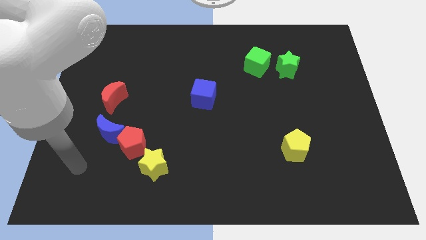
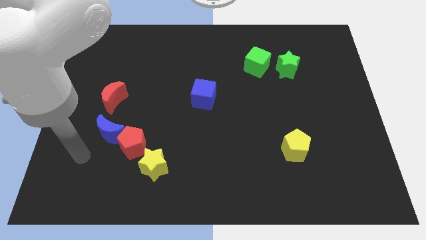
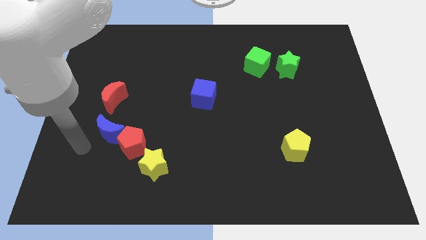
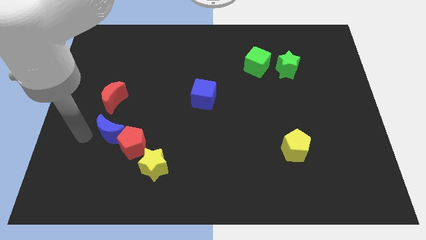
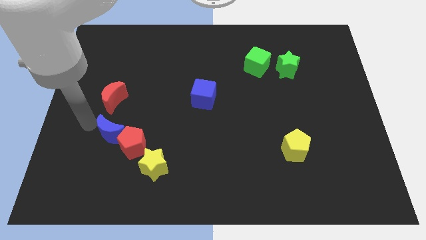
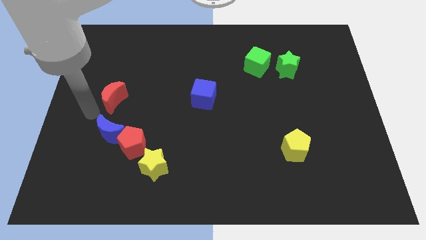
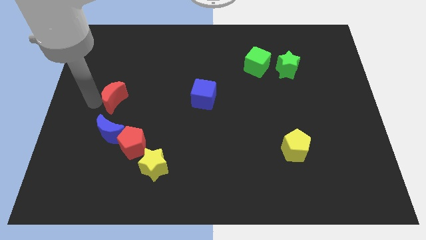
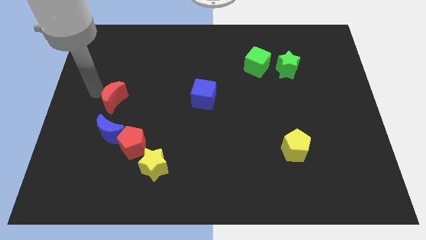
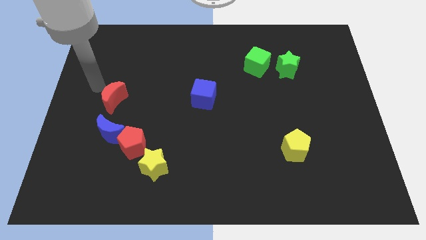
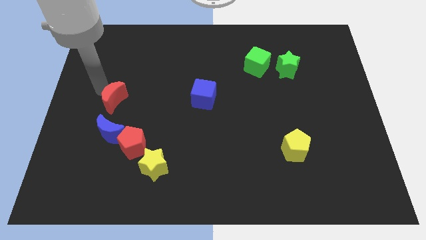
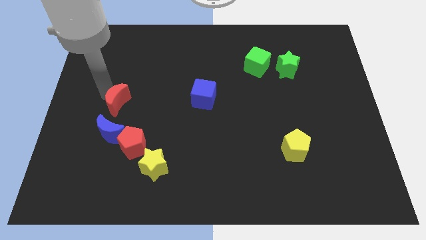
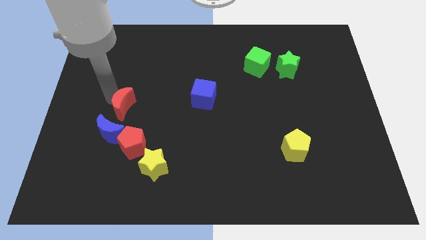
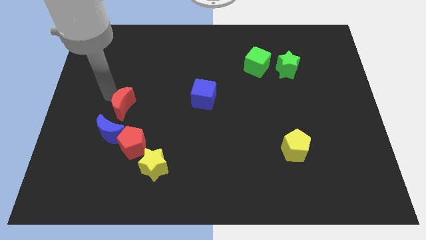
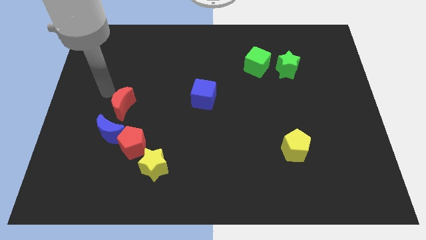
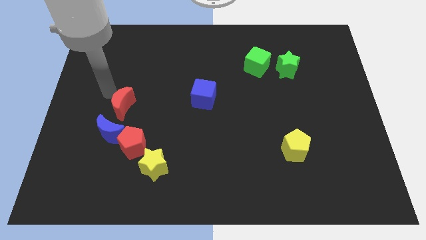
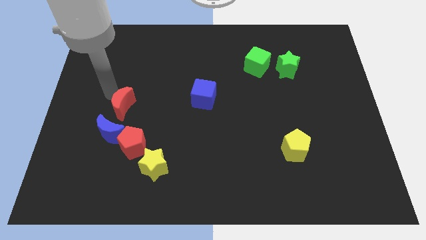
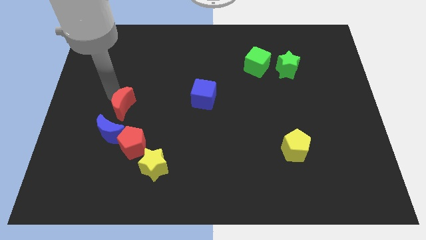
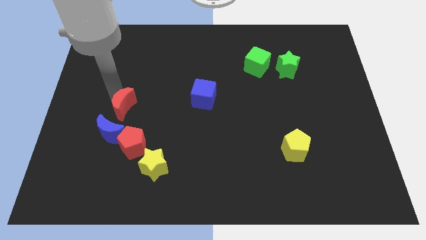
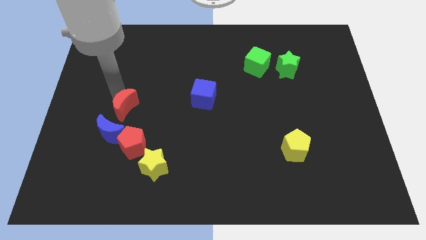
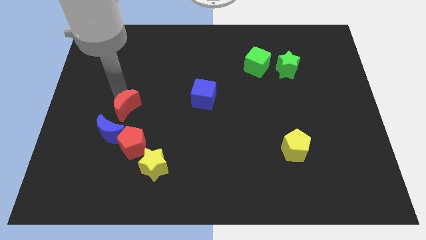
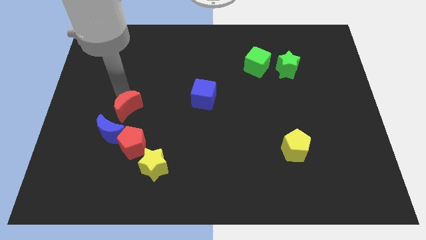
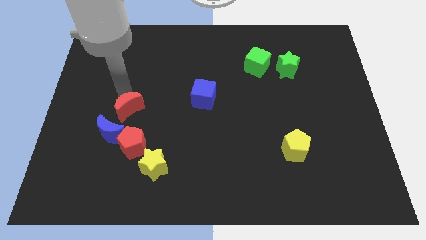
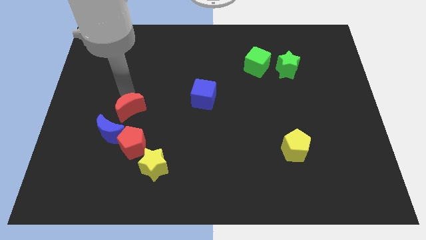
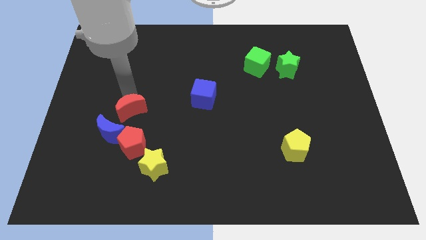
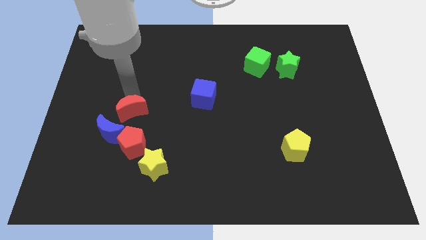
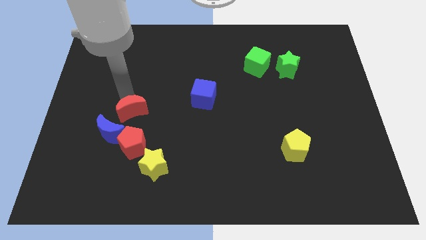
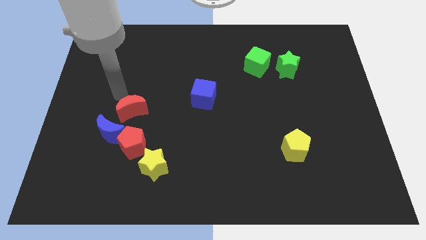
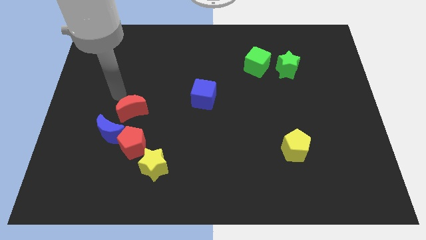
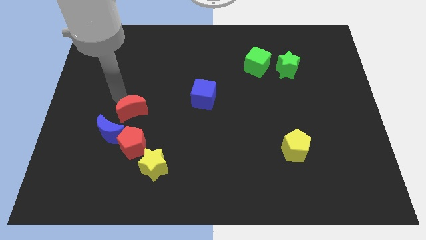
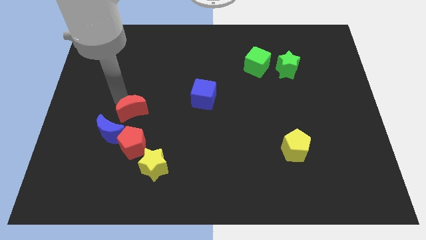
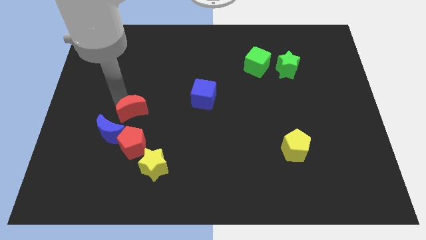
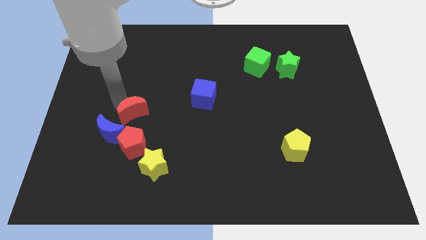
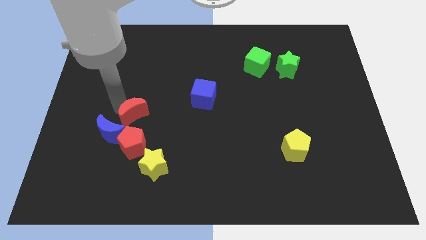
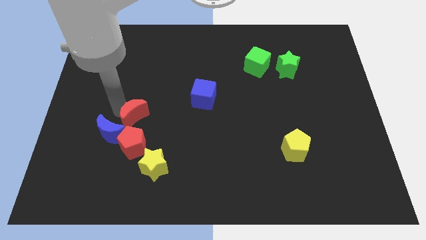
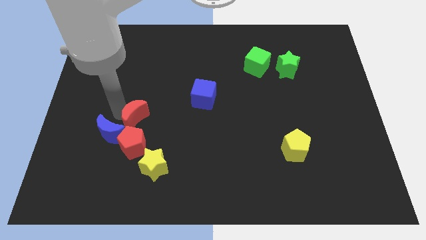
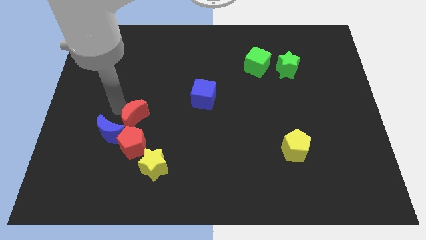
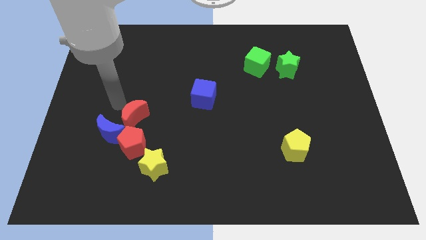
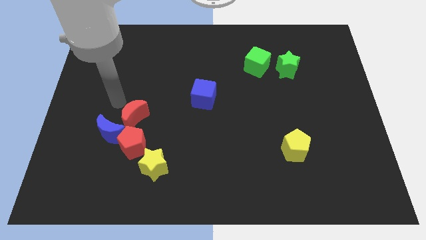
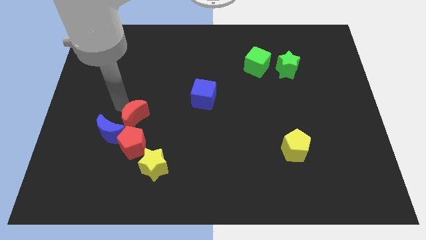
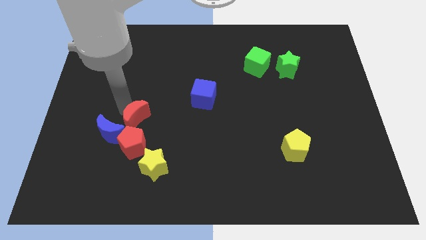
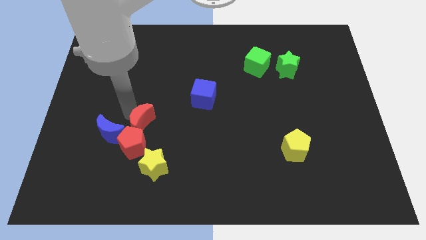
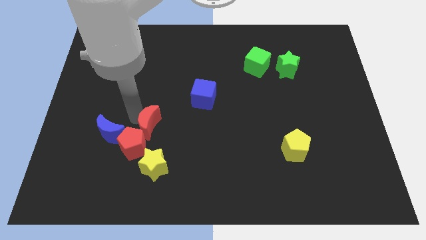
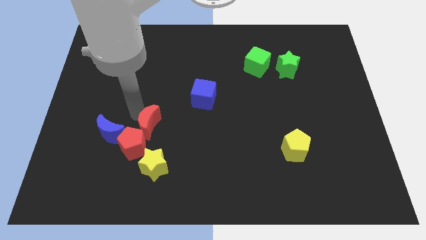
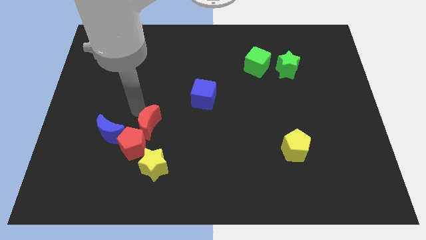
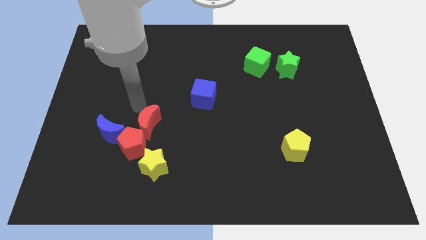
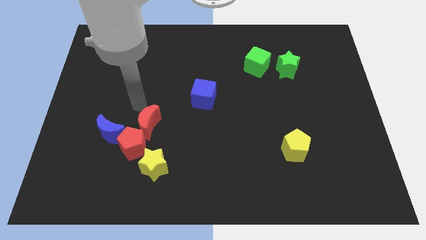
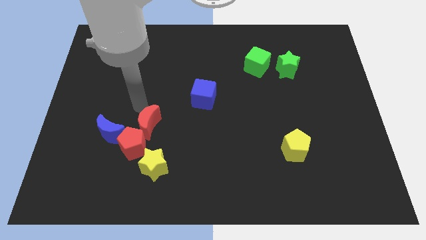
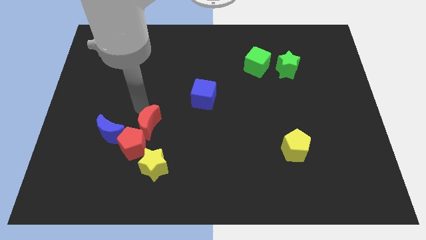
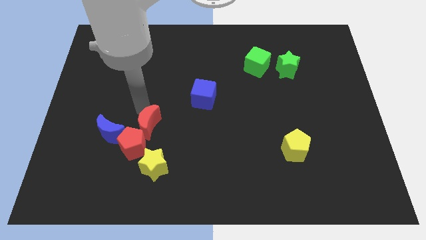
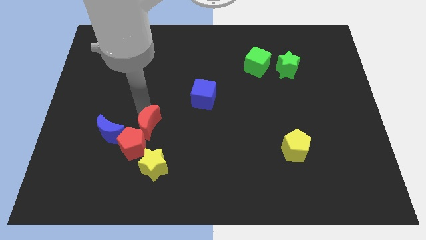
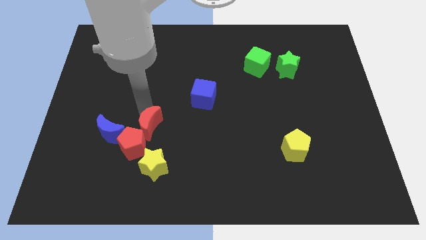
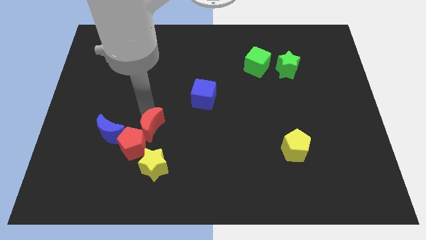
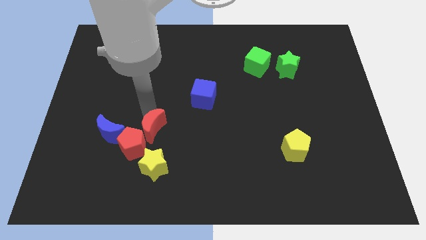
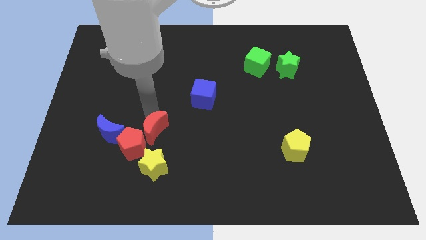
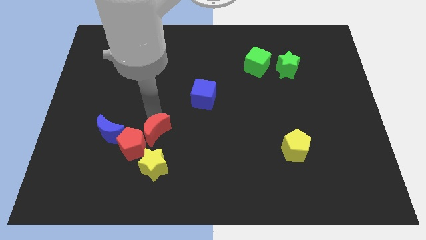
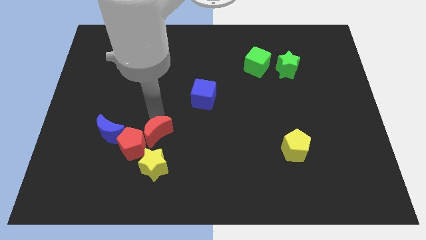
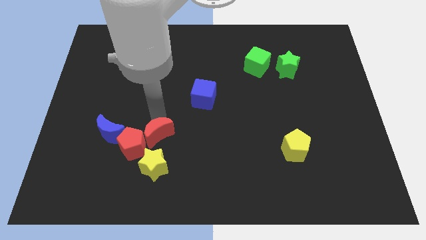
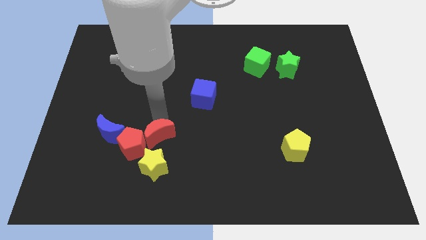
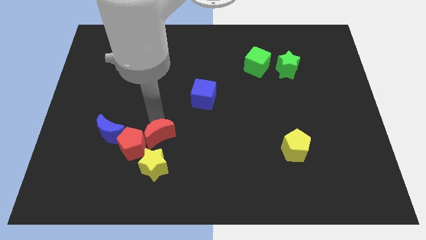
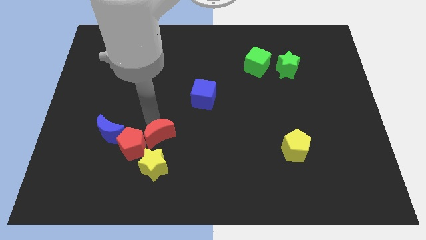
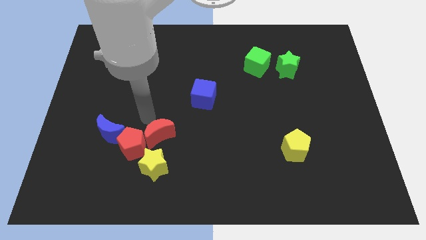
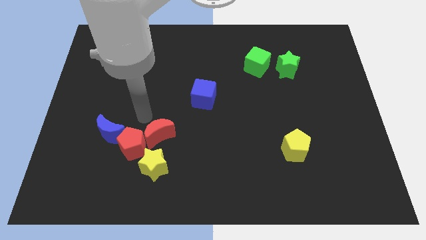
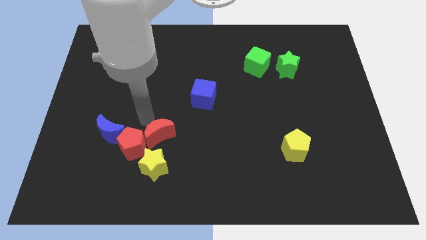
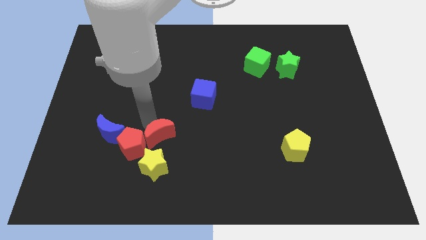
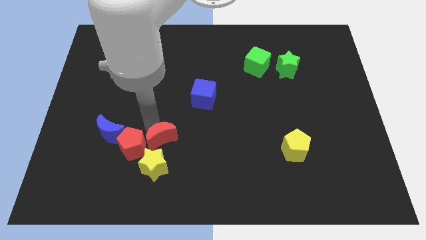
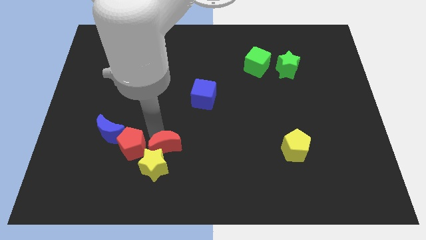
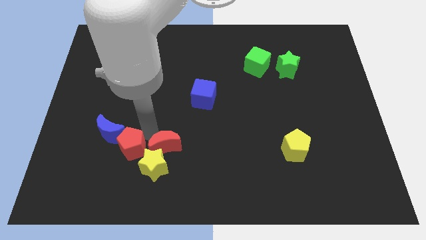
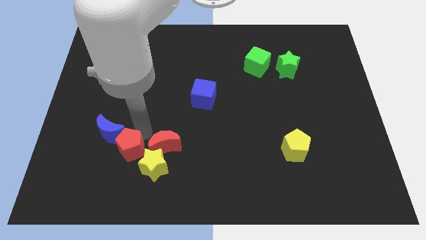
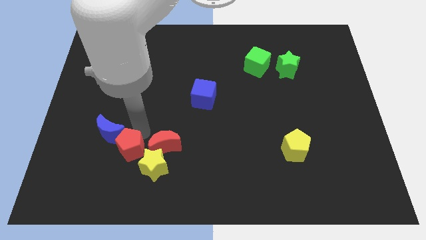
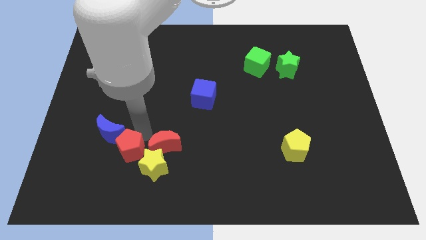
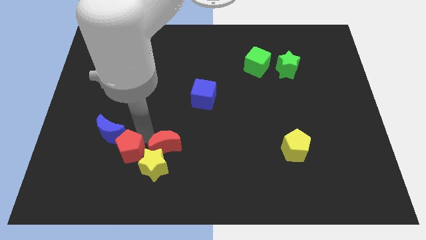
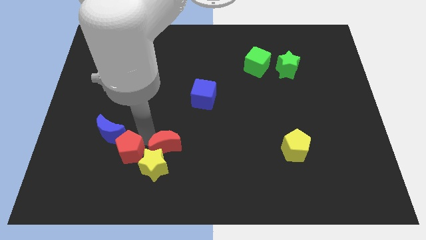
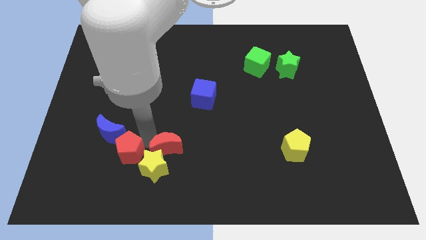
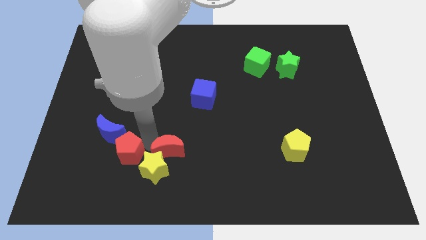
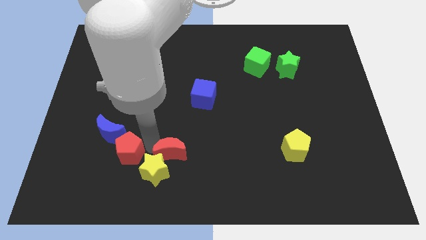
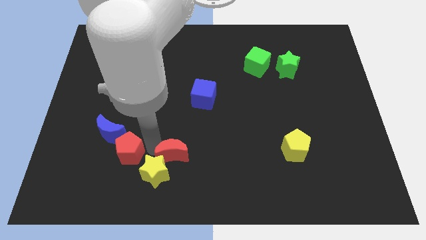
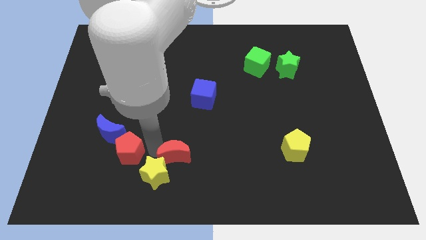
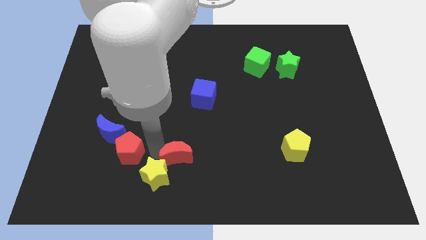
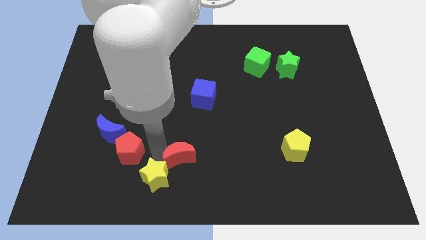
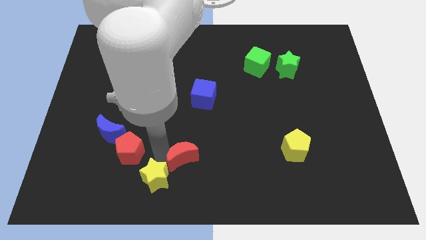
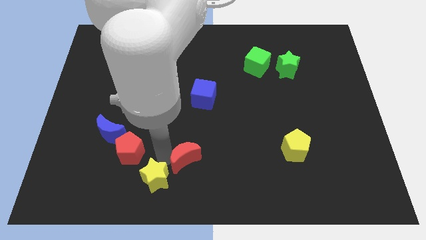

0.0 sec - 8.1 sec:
move the red moon to the bottom side
